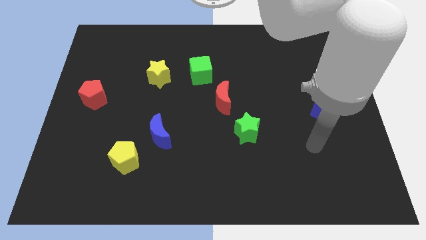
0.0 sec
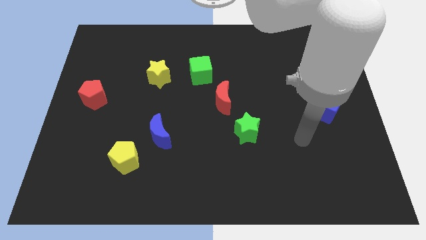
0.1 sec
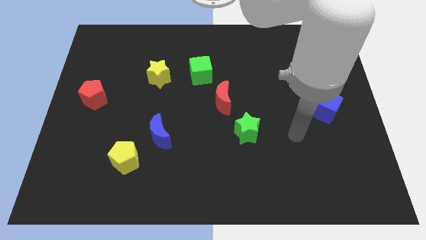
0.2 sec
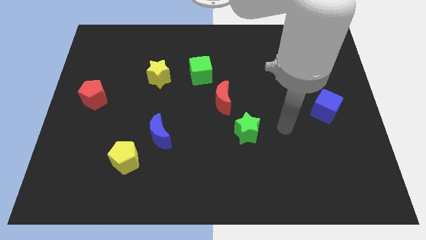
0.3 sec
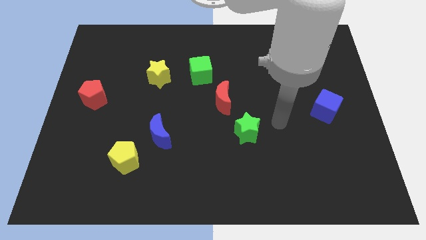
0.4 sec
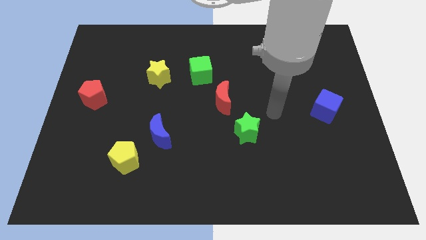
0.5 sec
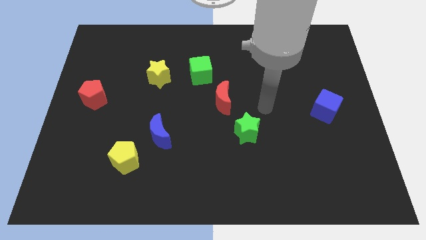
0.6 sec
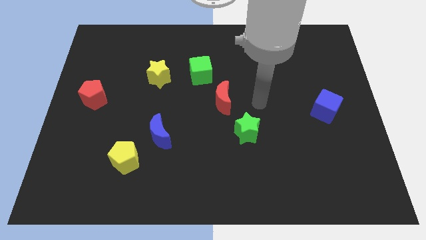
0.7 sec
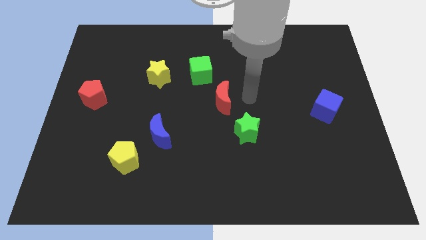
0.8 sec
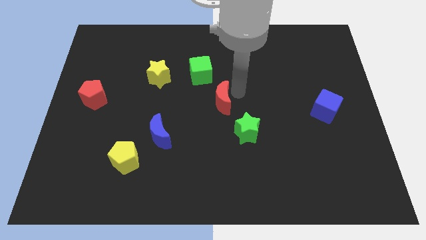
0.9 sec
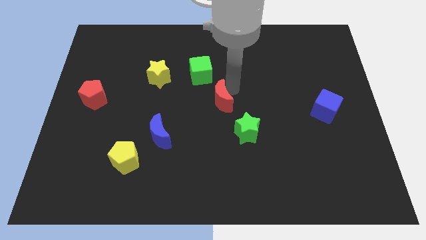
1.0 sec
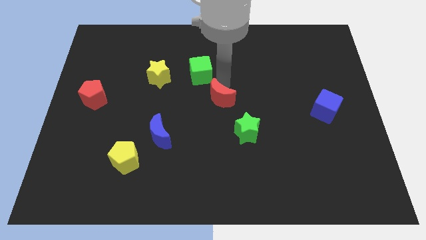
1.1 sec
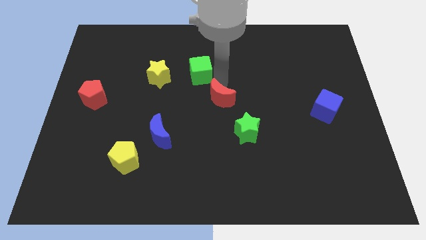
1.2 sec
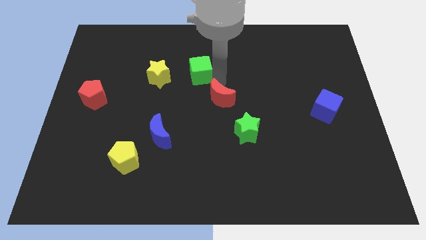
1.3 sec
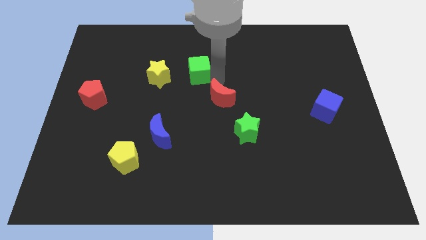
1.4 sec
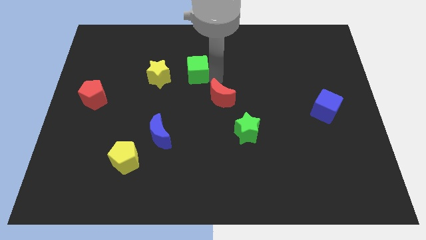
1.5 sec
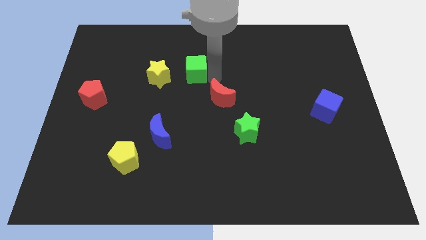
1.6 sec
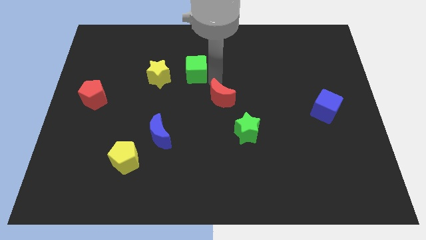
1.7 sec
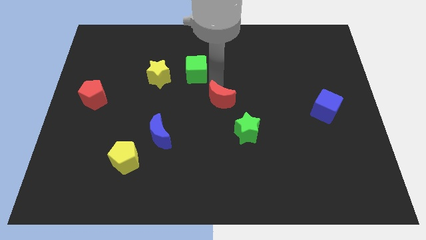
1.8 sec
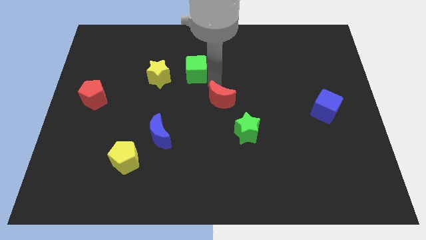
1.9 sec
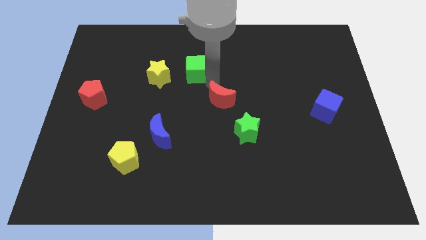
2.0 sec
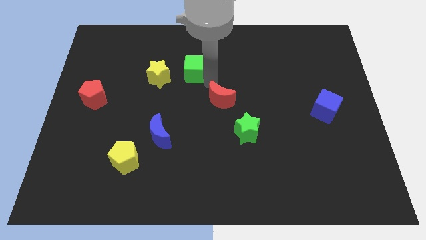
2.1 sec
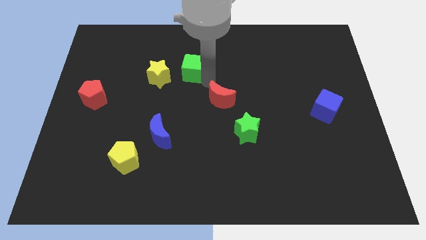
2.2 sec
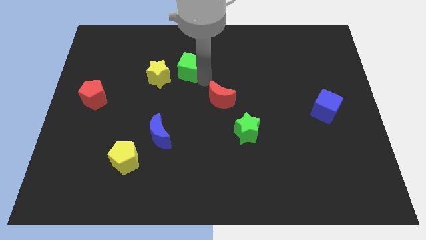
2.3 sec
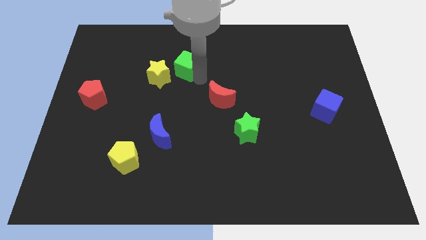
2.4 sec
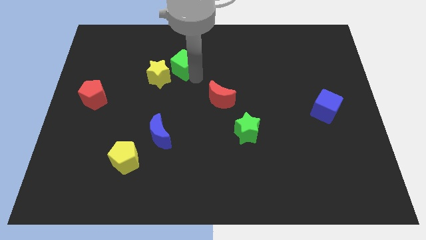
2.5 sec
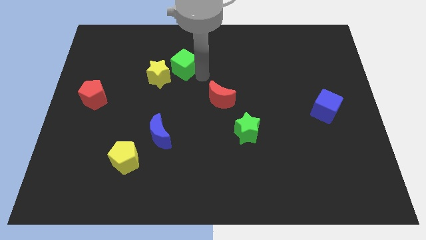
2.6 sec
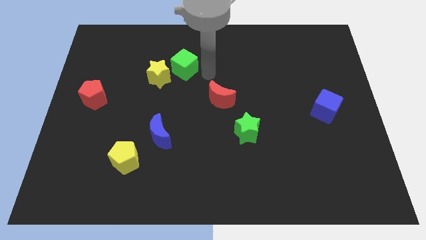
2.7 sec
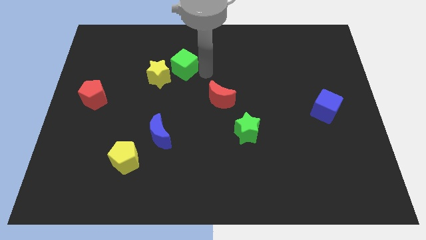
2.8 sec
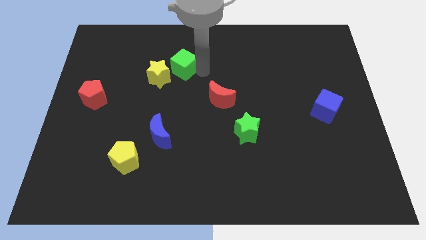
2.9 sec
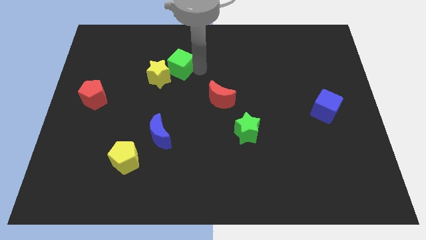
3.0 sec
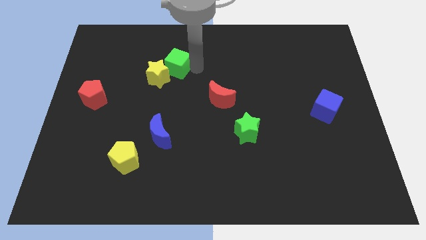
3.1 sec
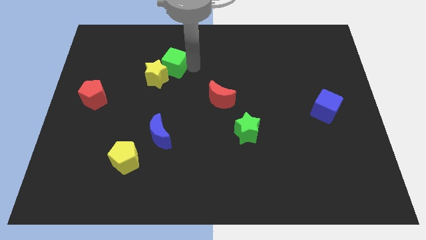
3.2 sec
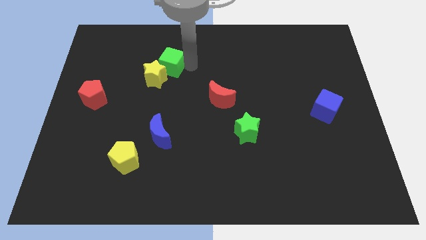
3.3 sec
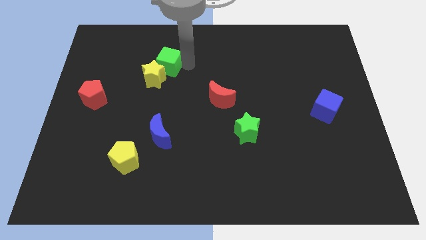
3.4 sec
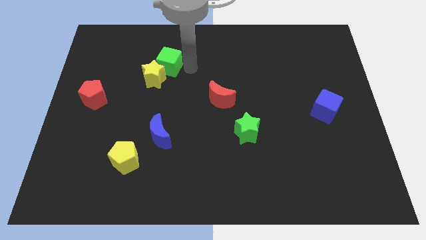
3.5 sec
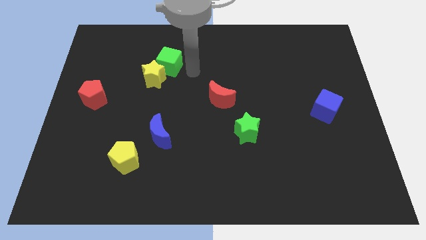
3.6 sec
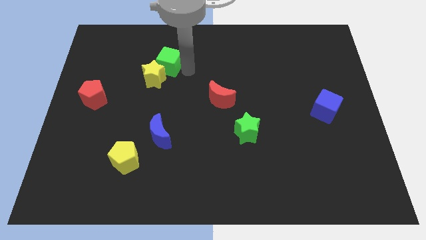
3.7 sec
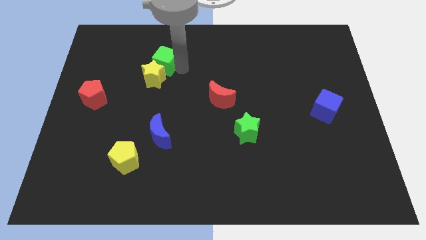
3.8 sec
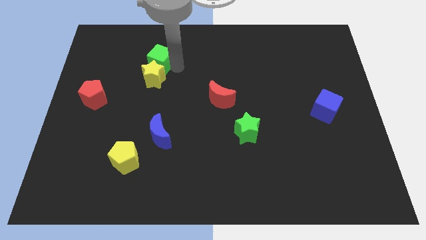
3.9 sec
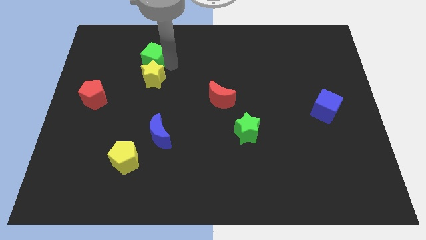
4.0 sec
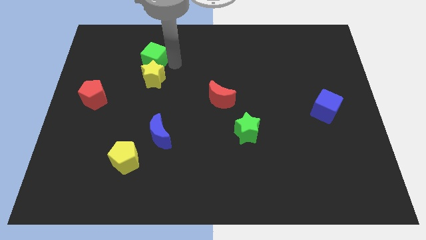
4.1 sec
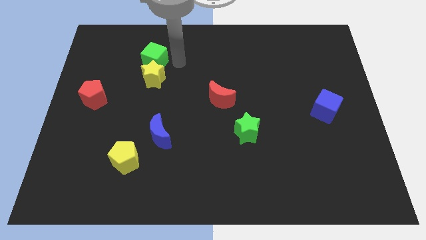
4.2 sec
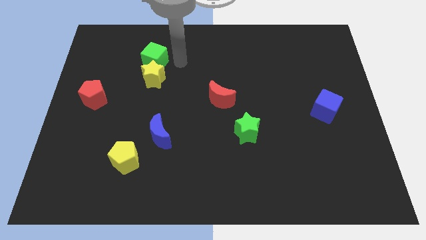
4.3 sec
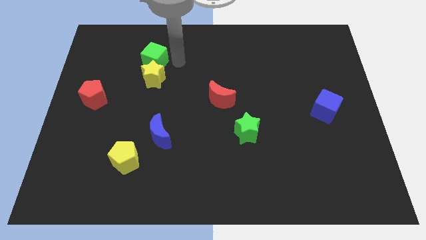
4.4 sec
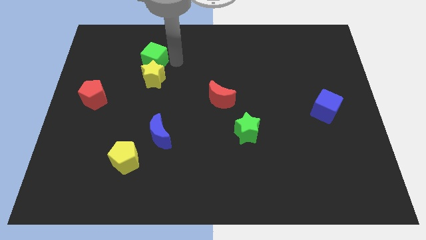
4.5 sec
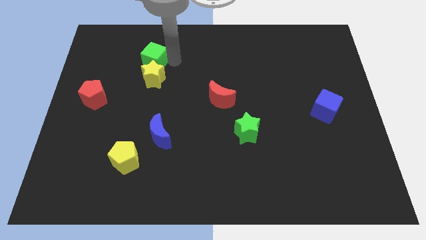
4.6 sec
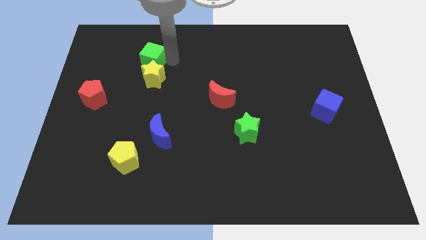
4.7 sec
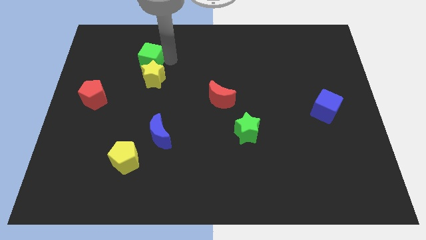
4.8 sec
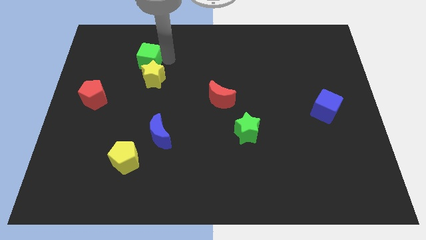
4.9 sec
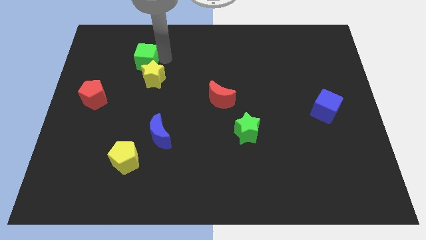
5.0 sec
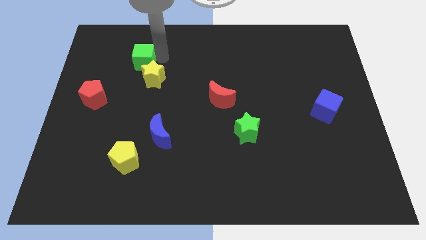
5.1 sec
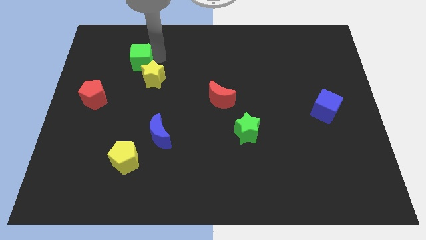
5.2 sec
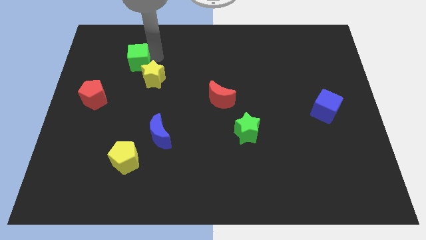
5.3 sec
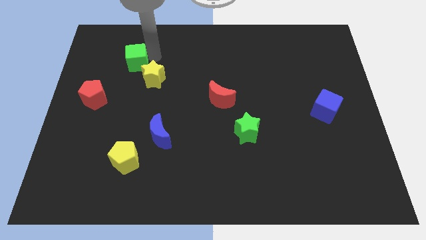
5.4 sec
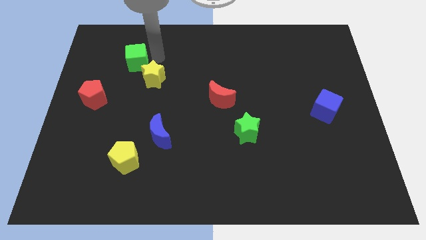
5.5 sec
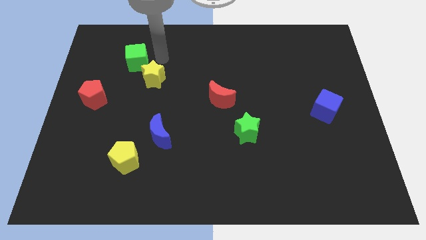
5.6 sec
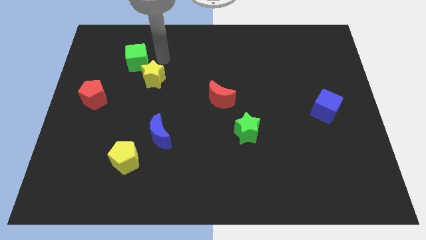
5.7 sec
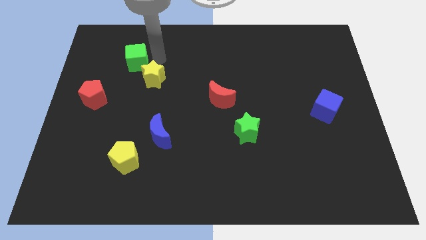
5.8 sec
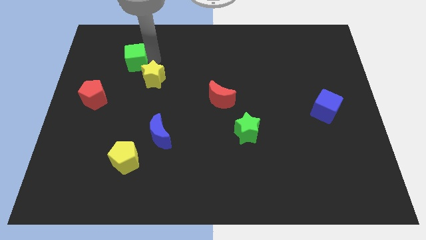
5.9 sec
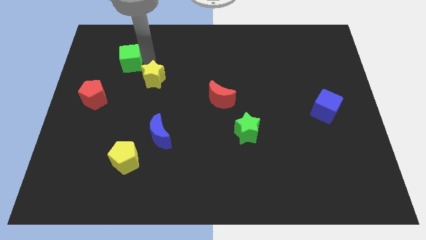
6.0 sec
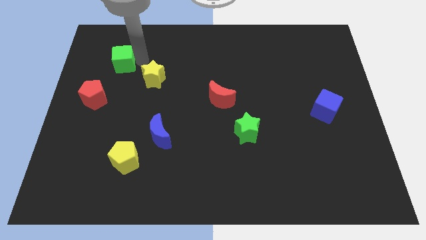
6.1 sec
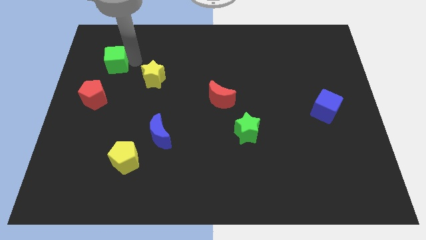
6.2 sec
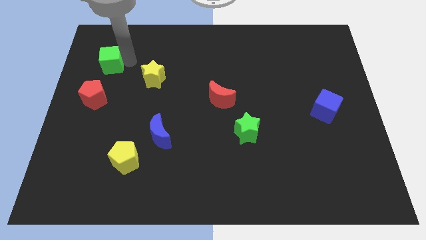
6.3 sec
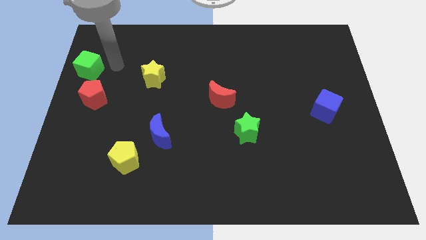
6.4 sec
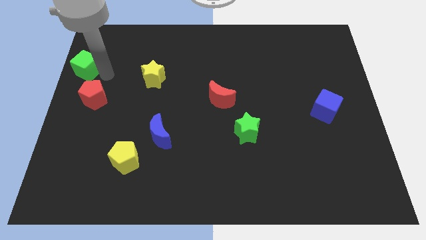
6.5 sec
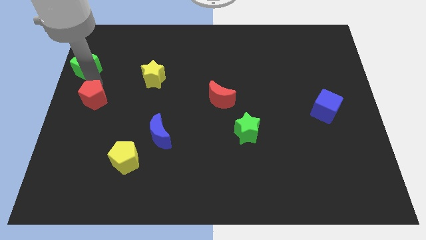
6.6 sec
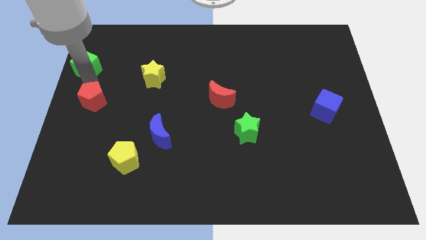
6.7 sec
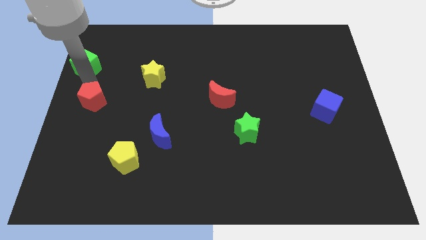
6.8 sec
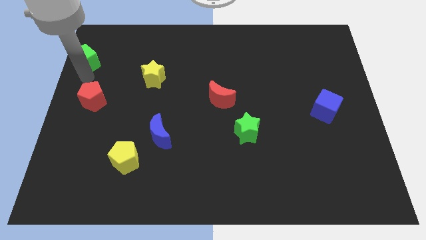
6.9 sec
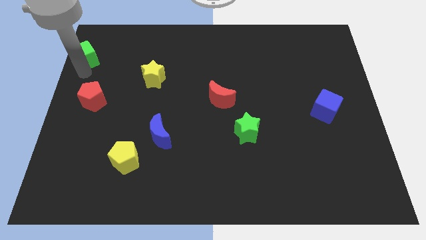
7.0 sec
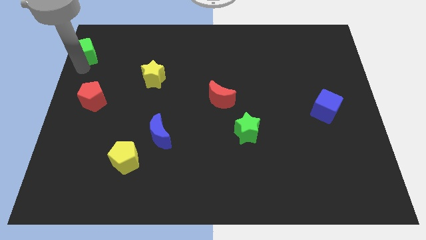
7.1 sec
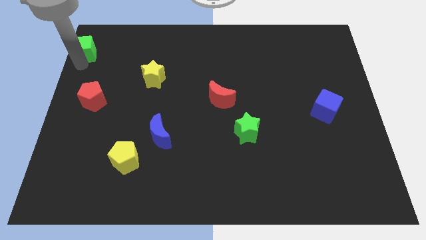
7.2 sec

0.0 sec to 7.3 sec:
put the green cube to the top left
